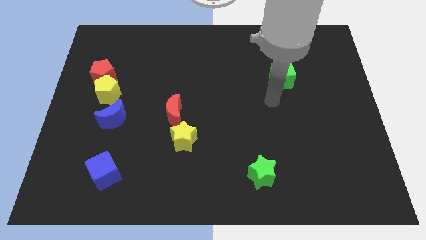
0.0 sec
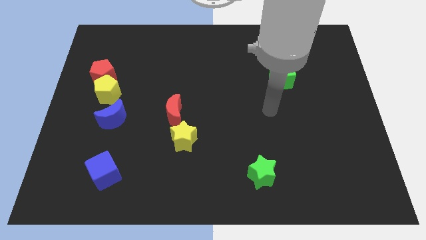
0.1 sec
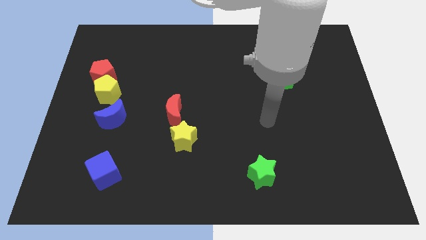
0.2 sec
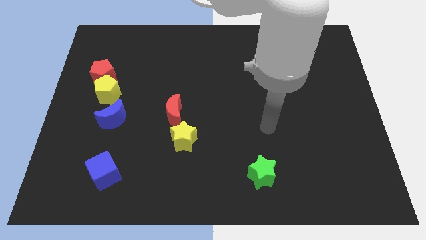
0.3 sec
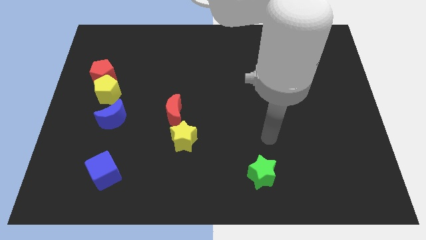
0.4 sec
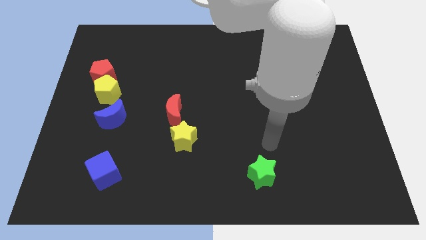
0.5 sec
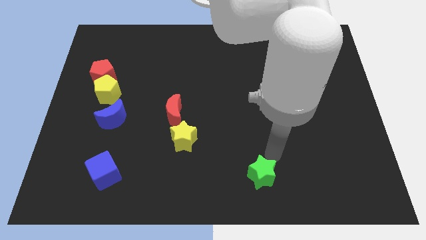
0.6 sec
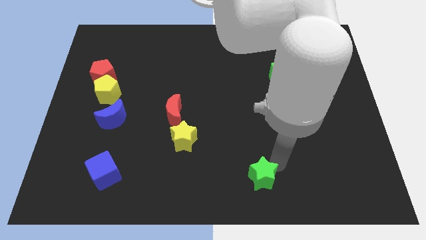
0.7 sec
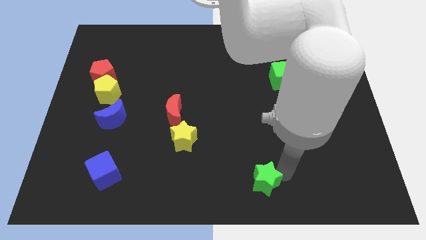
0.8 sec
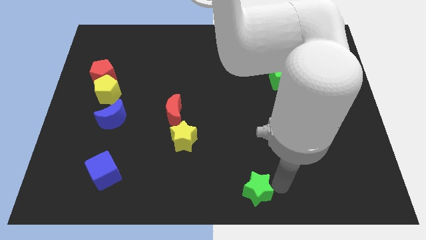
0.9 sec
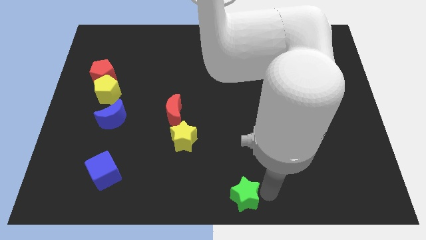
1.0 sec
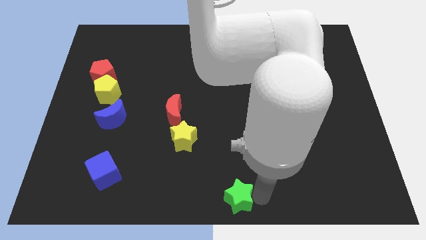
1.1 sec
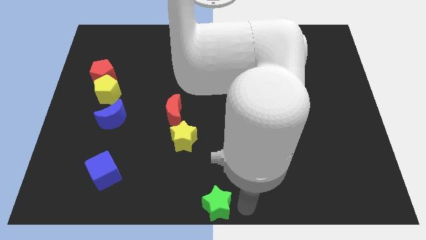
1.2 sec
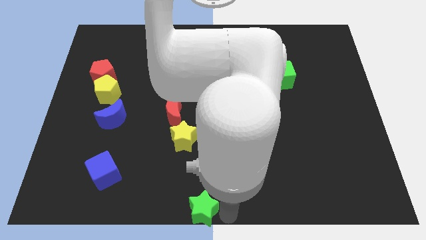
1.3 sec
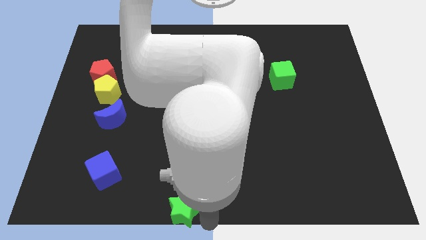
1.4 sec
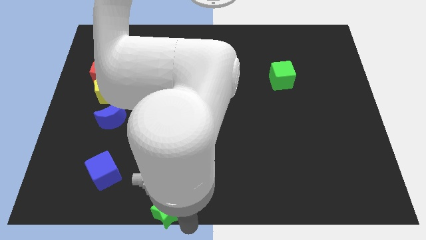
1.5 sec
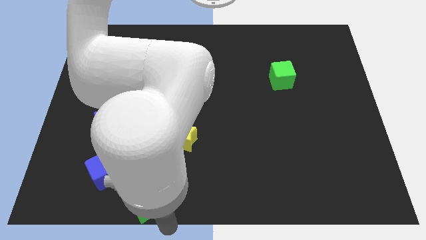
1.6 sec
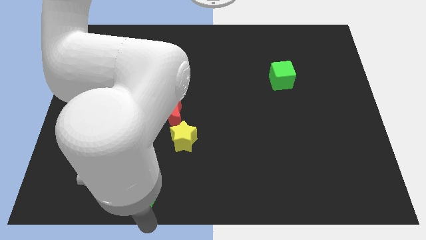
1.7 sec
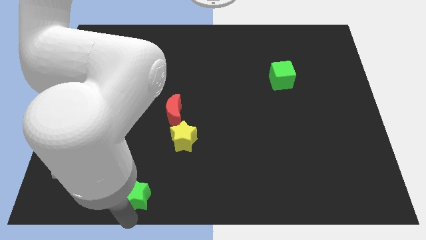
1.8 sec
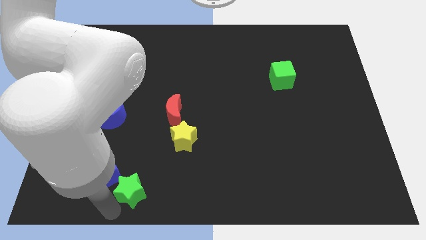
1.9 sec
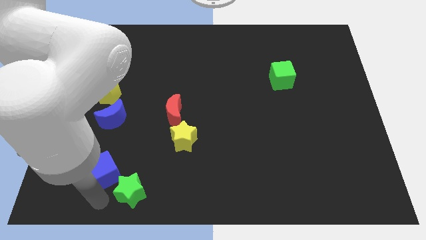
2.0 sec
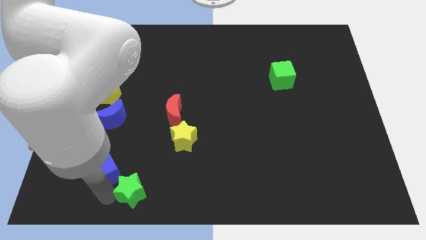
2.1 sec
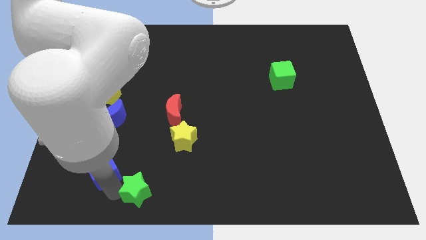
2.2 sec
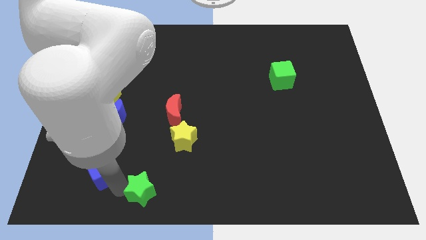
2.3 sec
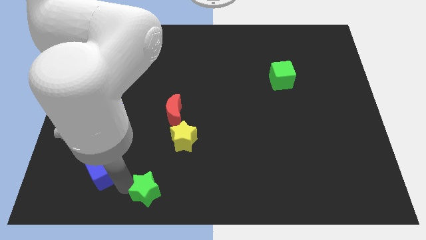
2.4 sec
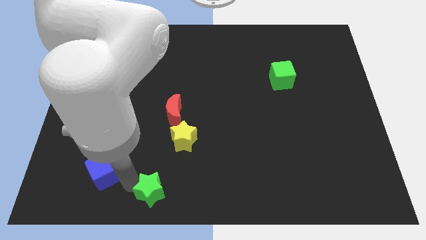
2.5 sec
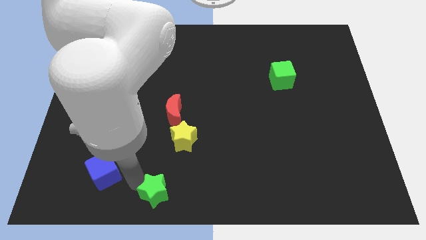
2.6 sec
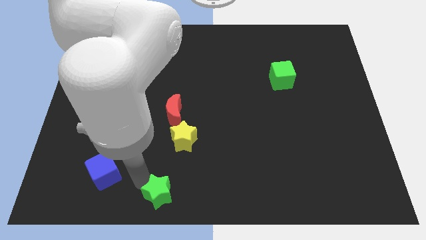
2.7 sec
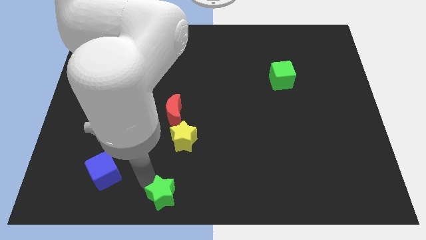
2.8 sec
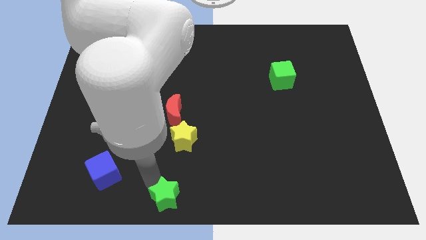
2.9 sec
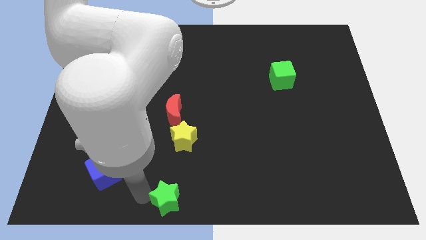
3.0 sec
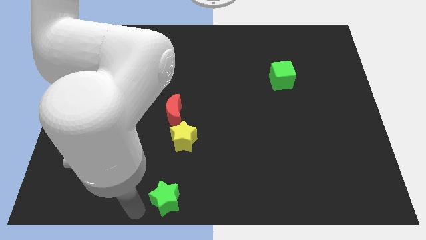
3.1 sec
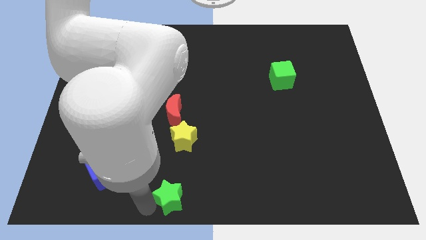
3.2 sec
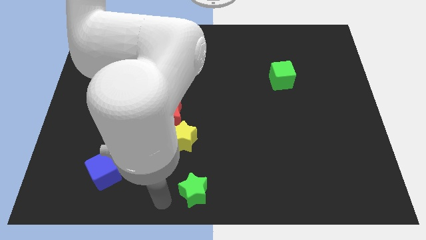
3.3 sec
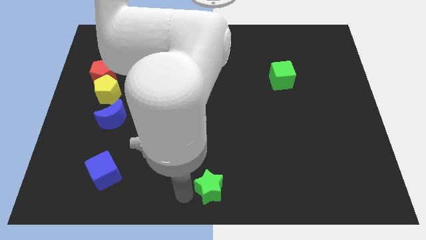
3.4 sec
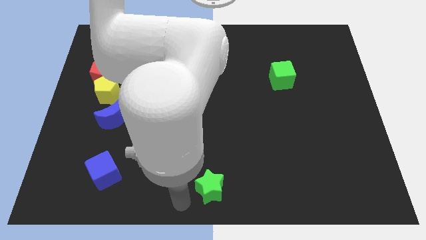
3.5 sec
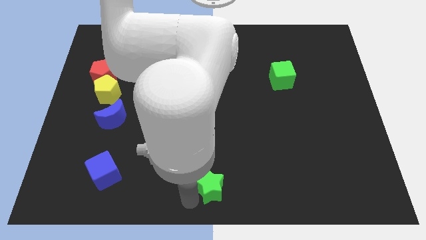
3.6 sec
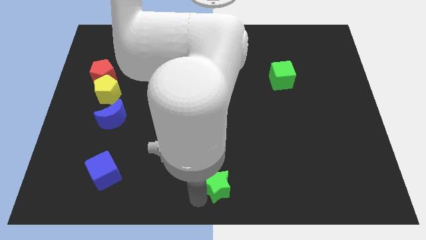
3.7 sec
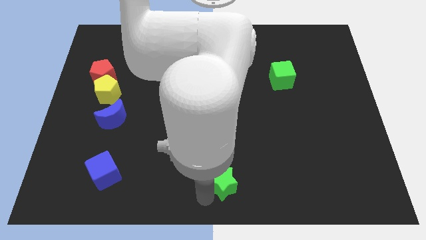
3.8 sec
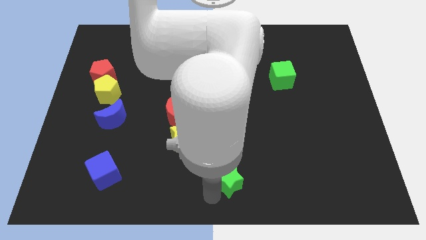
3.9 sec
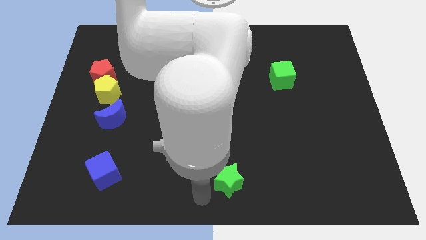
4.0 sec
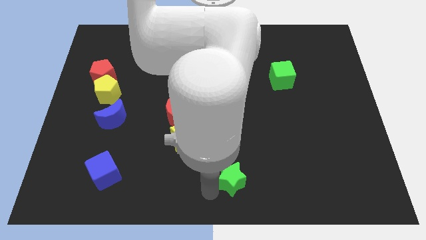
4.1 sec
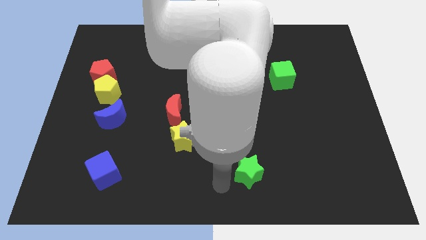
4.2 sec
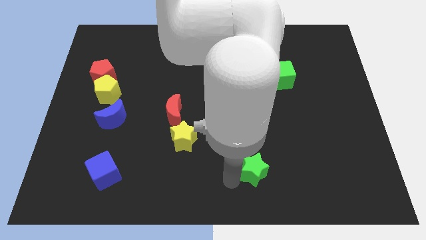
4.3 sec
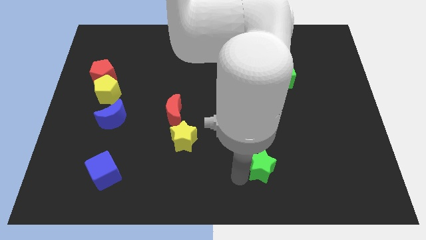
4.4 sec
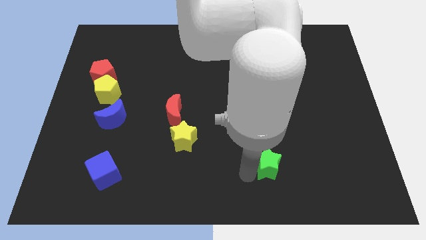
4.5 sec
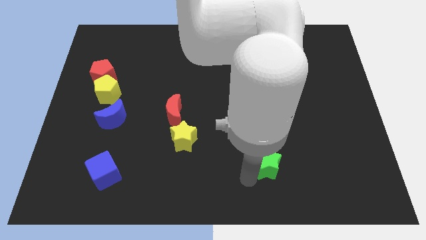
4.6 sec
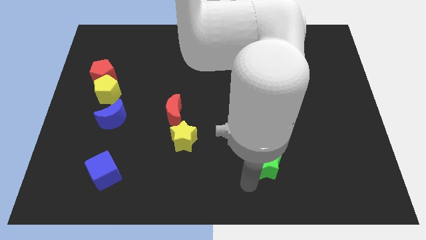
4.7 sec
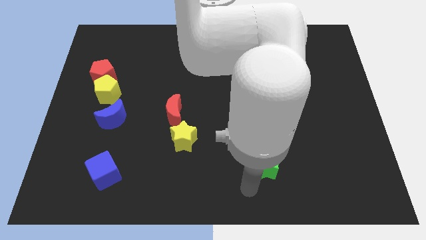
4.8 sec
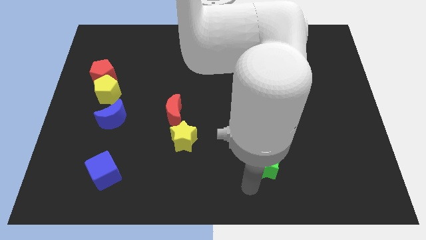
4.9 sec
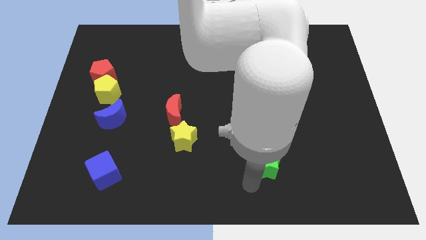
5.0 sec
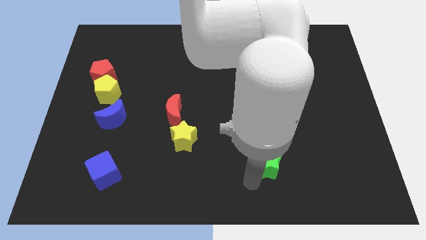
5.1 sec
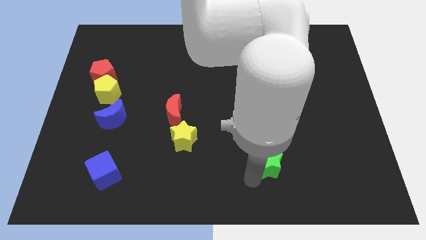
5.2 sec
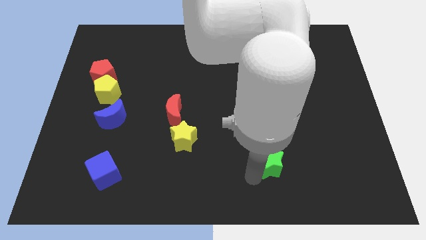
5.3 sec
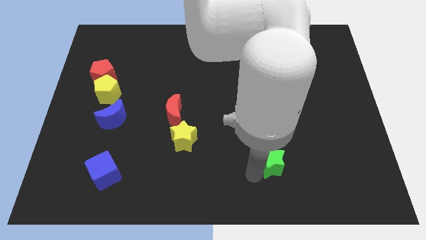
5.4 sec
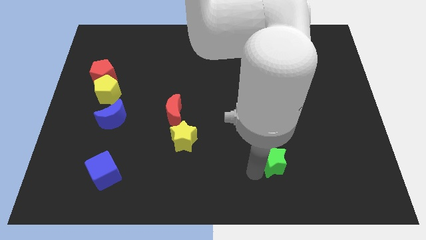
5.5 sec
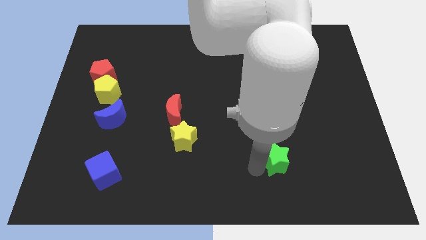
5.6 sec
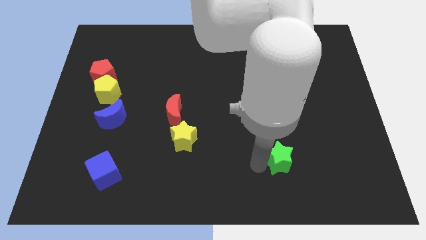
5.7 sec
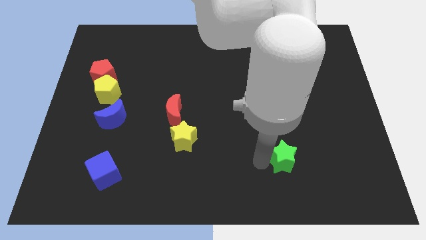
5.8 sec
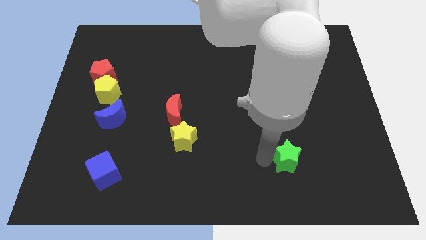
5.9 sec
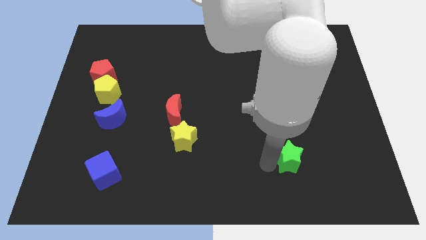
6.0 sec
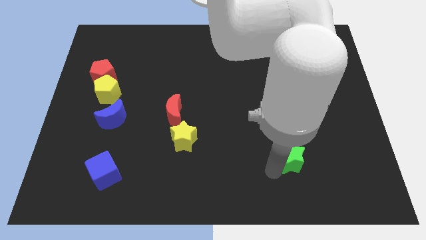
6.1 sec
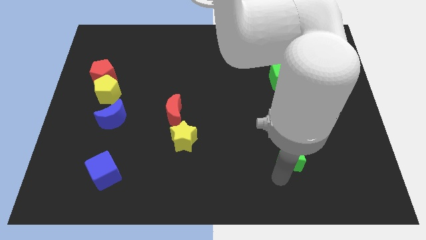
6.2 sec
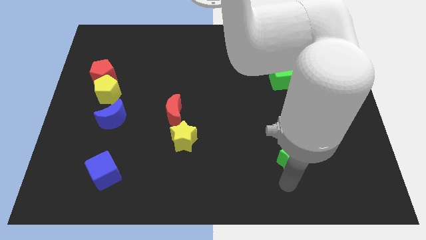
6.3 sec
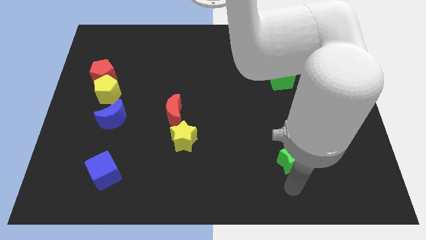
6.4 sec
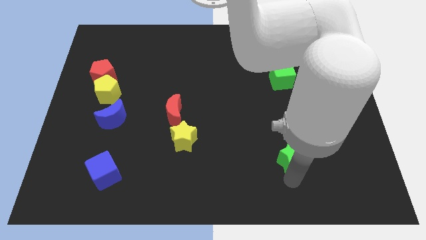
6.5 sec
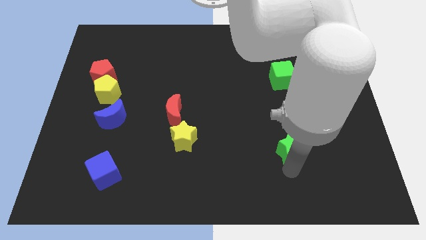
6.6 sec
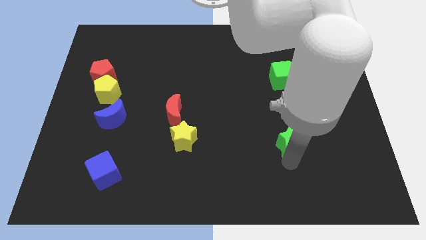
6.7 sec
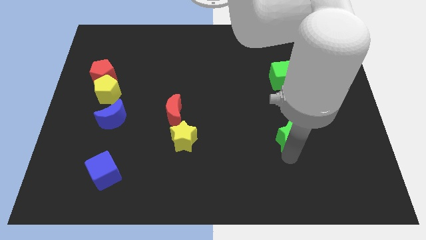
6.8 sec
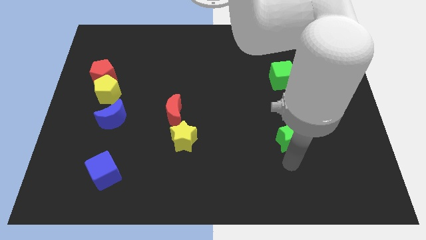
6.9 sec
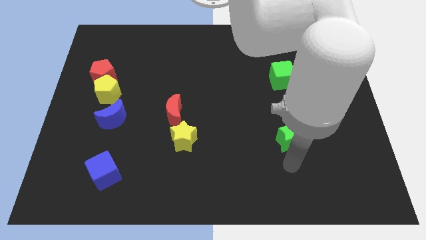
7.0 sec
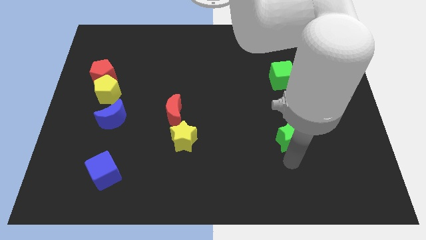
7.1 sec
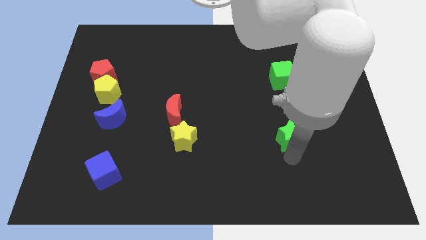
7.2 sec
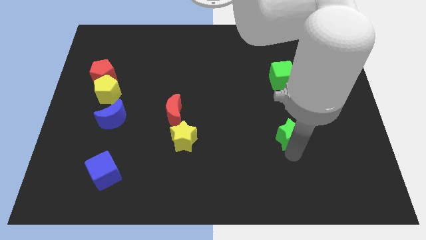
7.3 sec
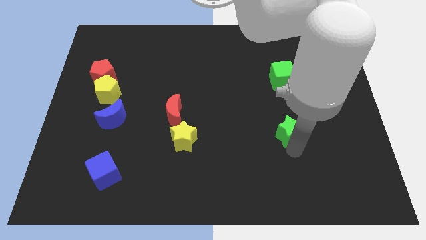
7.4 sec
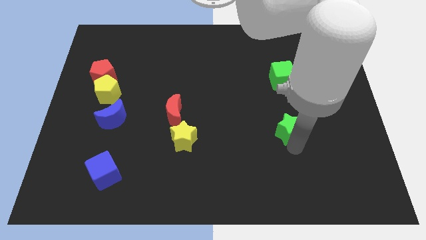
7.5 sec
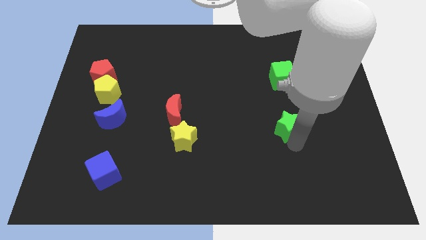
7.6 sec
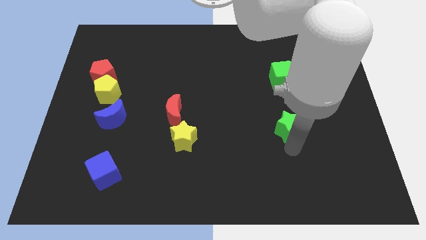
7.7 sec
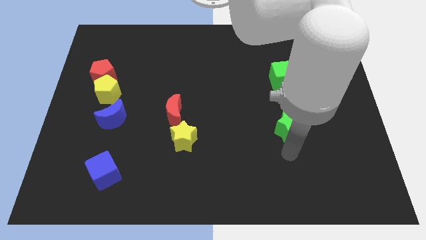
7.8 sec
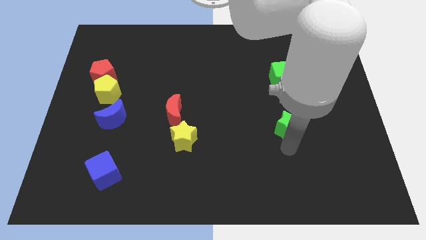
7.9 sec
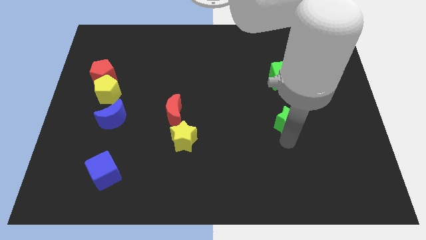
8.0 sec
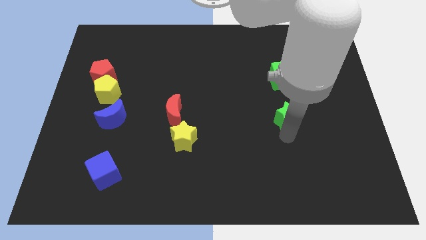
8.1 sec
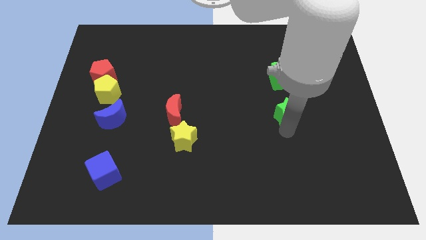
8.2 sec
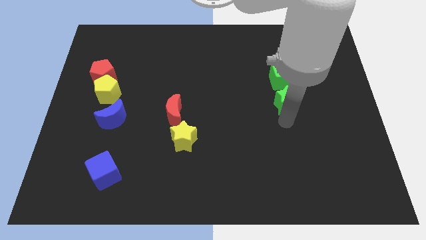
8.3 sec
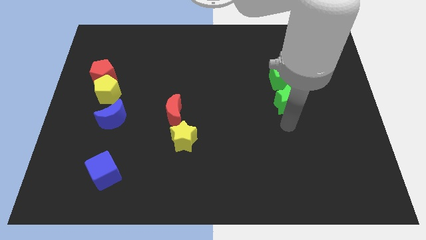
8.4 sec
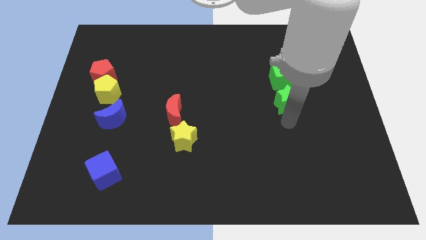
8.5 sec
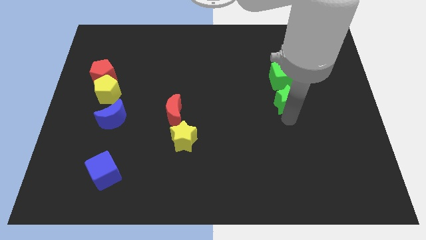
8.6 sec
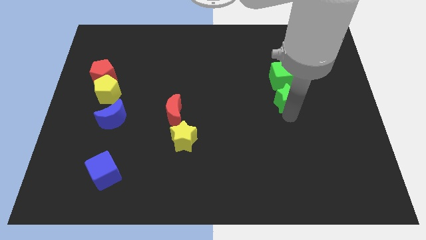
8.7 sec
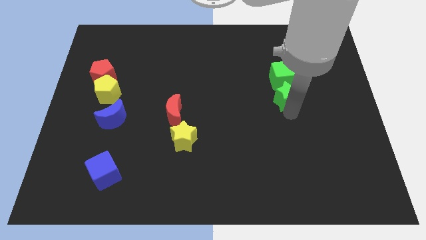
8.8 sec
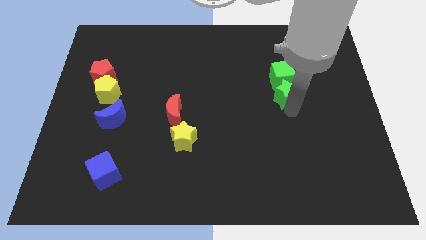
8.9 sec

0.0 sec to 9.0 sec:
put the green star close to the green cube
